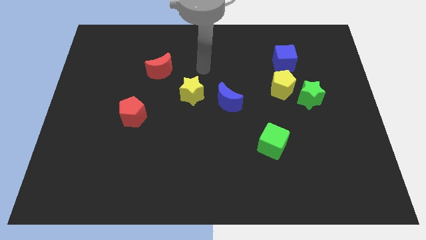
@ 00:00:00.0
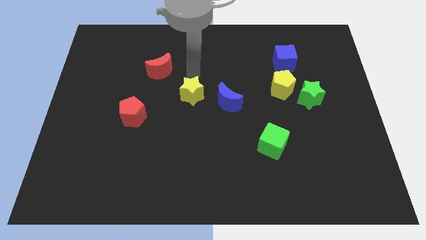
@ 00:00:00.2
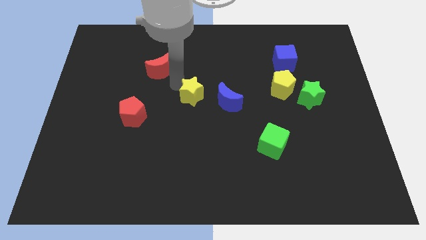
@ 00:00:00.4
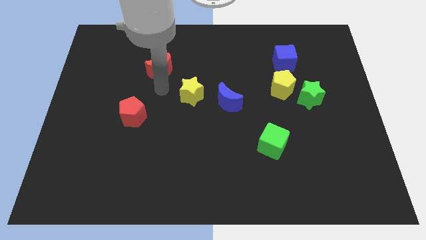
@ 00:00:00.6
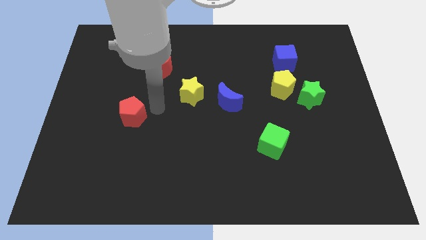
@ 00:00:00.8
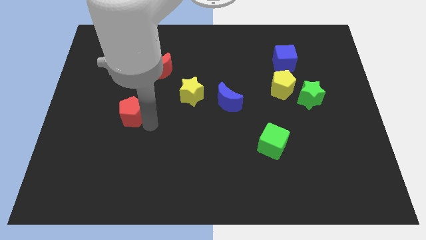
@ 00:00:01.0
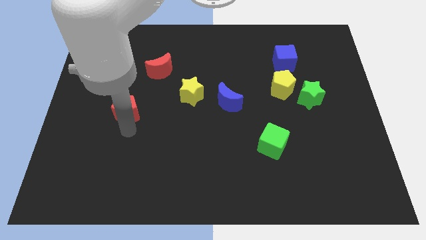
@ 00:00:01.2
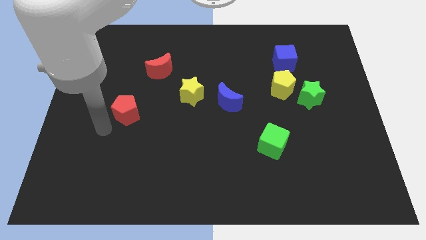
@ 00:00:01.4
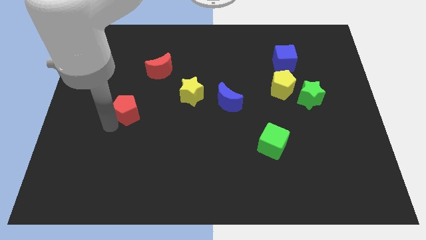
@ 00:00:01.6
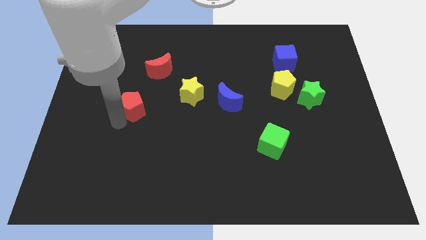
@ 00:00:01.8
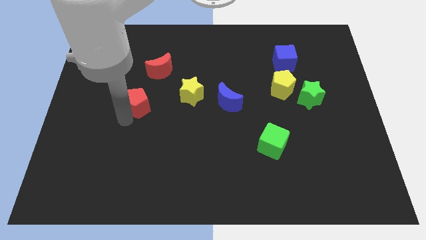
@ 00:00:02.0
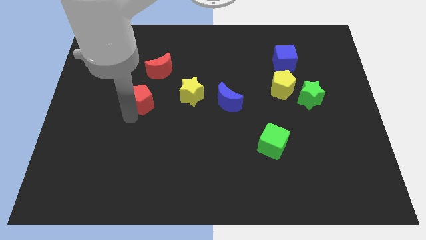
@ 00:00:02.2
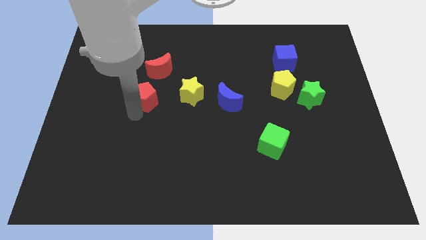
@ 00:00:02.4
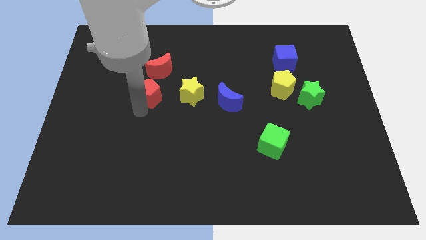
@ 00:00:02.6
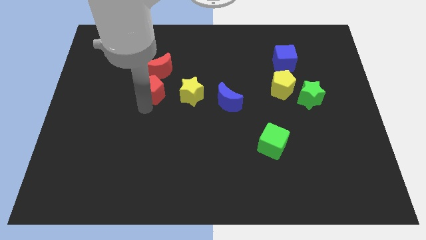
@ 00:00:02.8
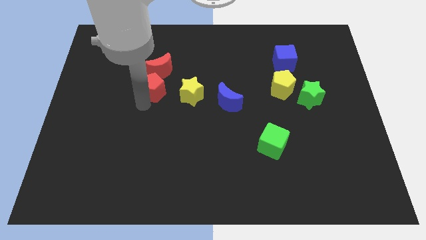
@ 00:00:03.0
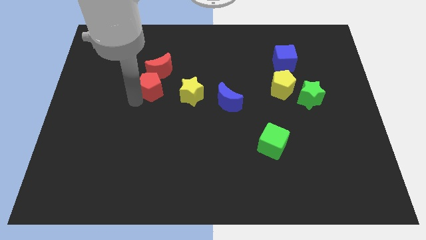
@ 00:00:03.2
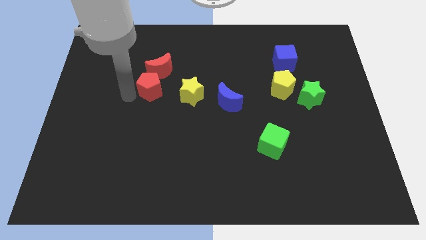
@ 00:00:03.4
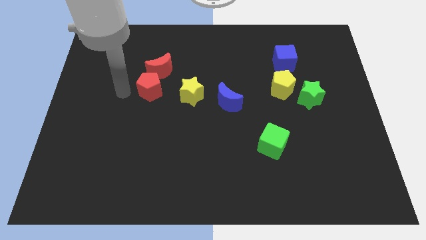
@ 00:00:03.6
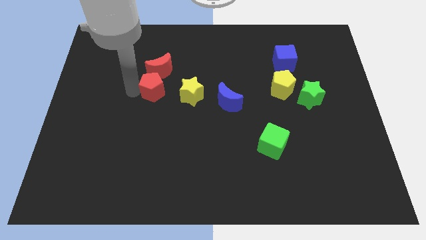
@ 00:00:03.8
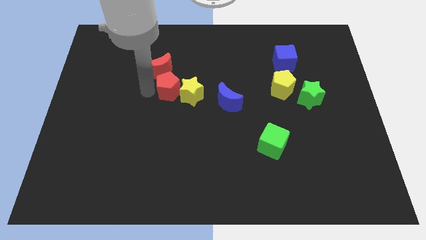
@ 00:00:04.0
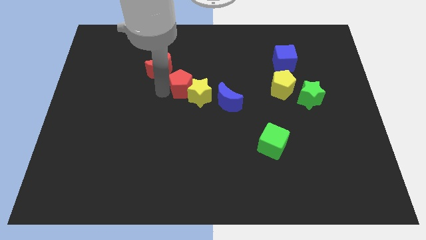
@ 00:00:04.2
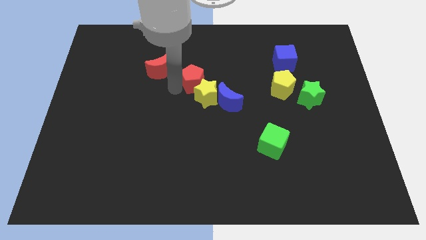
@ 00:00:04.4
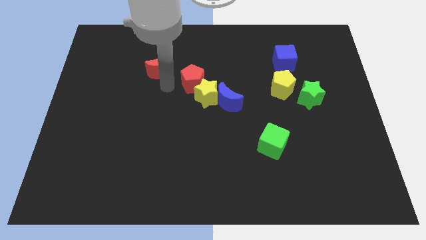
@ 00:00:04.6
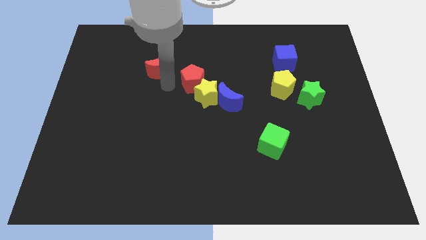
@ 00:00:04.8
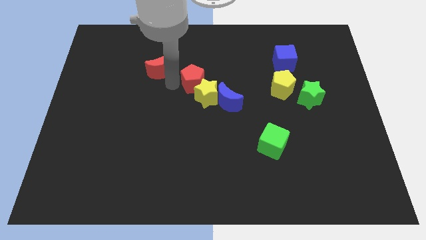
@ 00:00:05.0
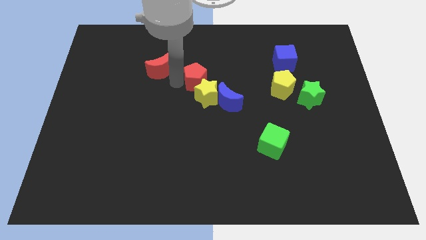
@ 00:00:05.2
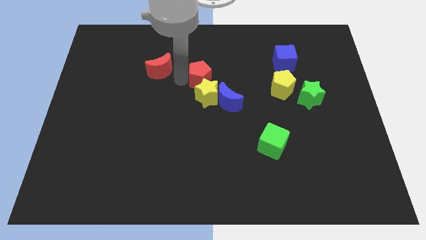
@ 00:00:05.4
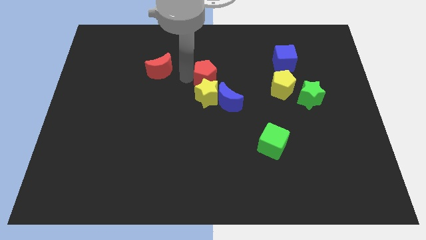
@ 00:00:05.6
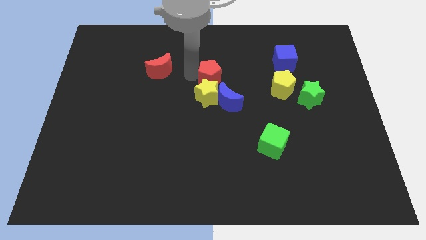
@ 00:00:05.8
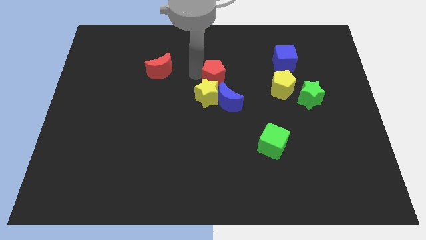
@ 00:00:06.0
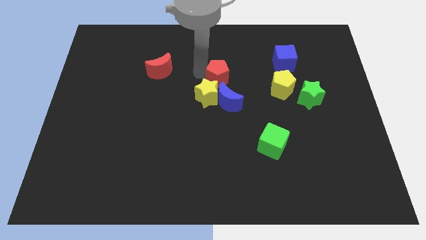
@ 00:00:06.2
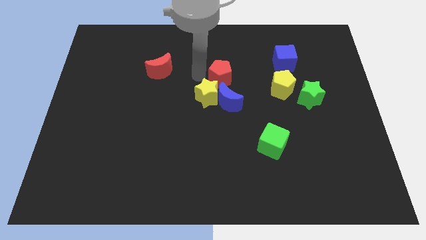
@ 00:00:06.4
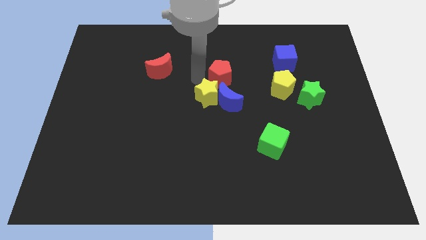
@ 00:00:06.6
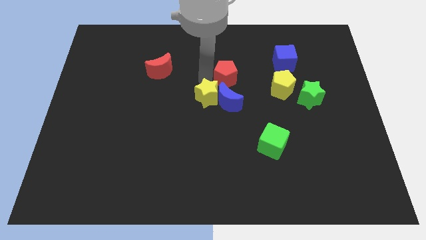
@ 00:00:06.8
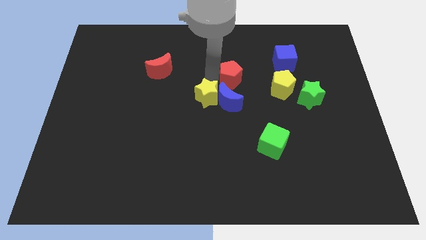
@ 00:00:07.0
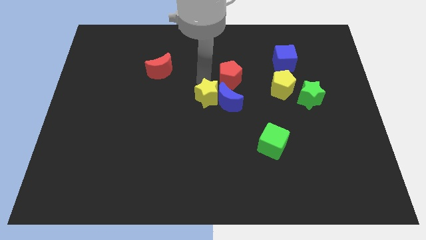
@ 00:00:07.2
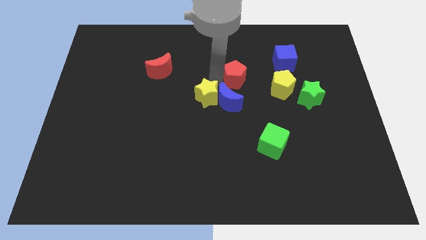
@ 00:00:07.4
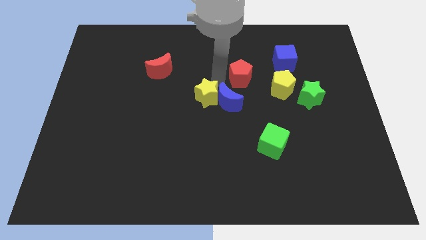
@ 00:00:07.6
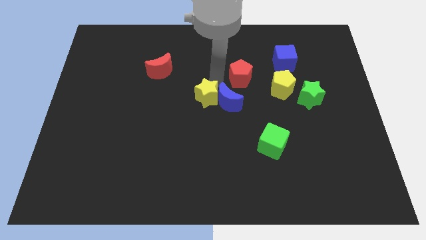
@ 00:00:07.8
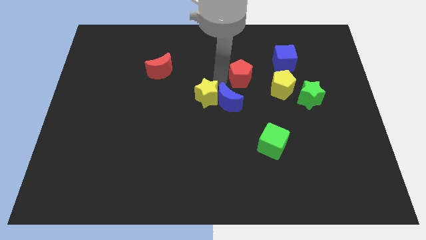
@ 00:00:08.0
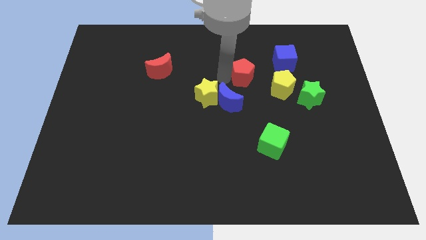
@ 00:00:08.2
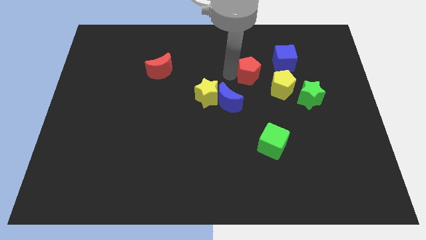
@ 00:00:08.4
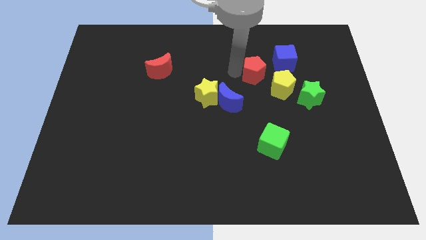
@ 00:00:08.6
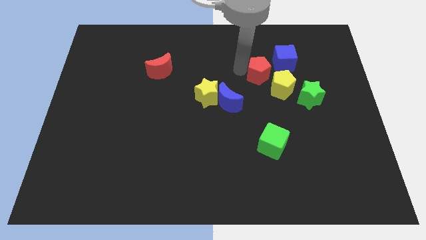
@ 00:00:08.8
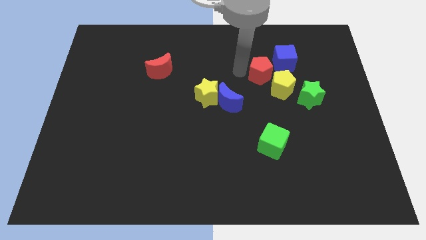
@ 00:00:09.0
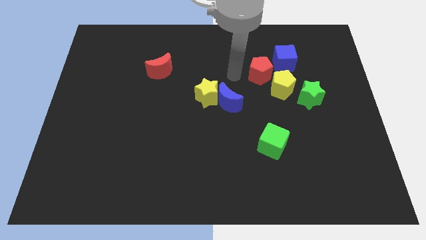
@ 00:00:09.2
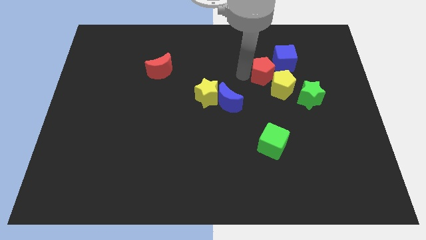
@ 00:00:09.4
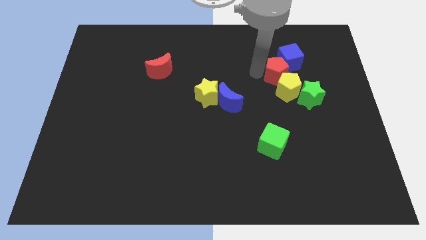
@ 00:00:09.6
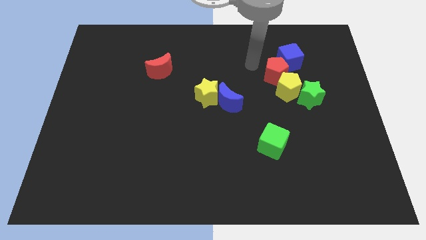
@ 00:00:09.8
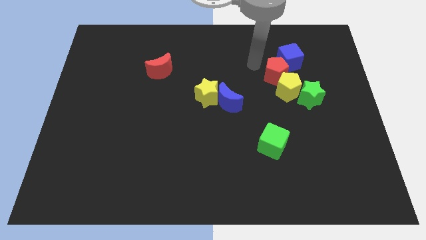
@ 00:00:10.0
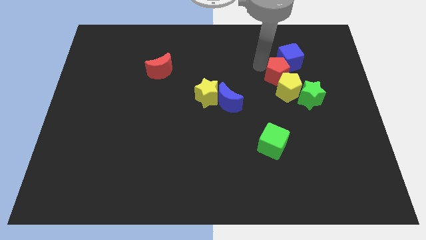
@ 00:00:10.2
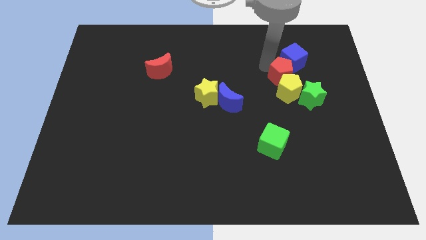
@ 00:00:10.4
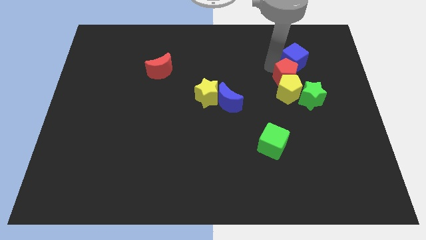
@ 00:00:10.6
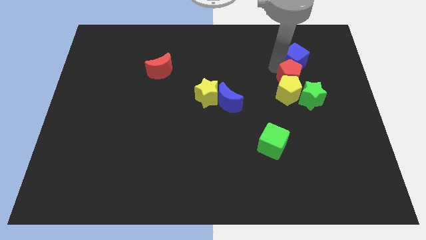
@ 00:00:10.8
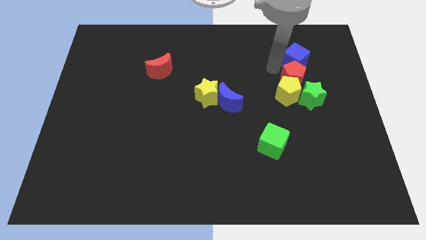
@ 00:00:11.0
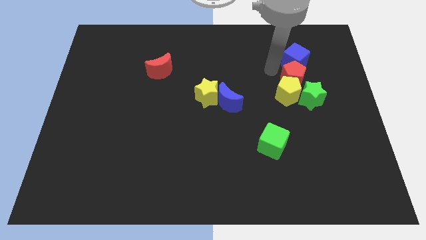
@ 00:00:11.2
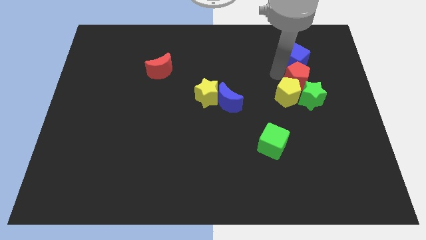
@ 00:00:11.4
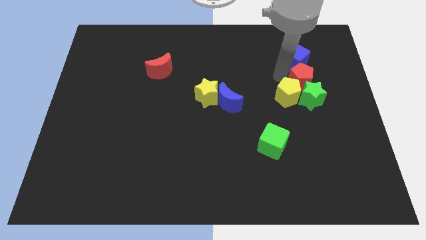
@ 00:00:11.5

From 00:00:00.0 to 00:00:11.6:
move the red pentagon right of the yellow pentagon

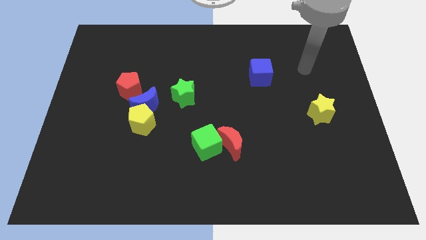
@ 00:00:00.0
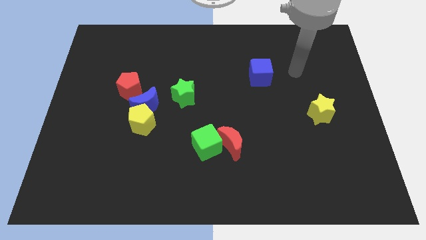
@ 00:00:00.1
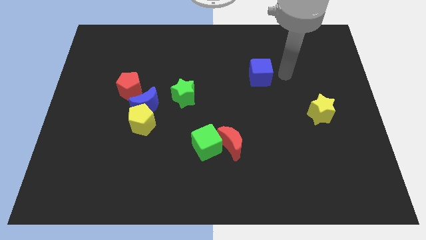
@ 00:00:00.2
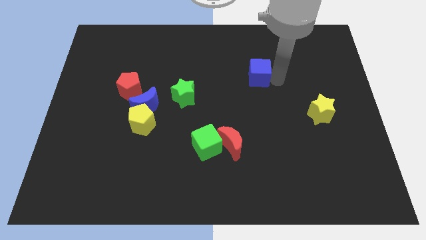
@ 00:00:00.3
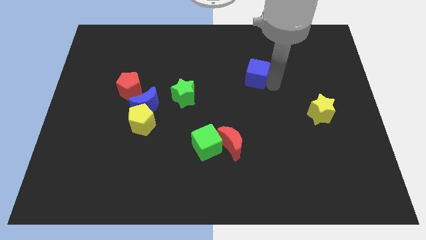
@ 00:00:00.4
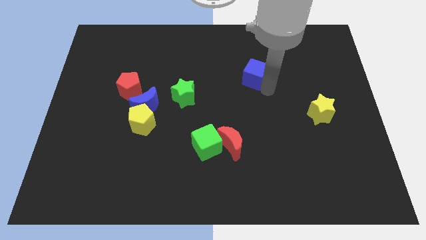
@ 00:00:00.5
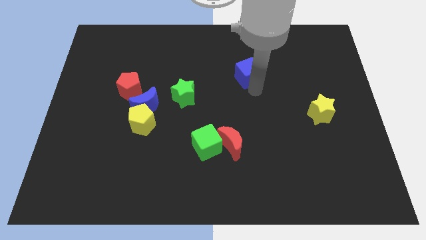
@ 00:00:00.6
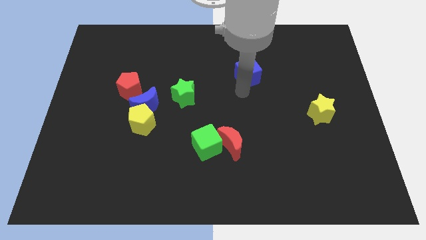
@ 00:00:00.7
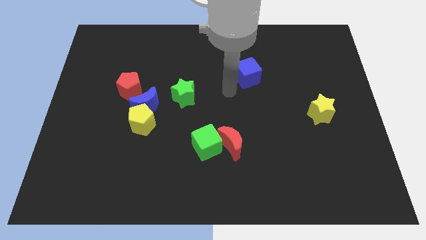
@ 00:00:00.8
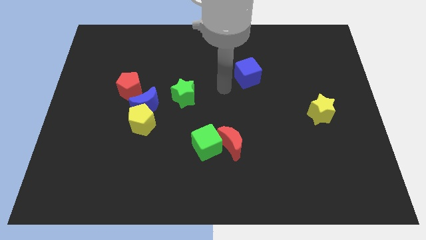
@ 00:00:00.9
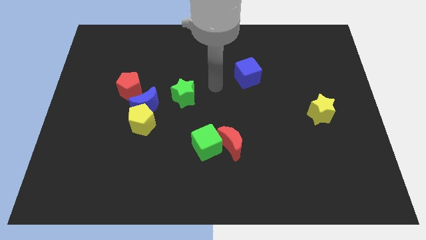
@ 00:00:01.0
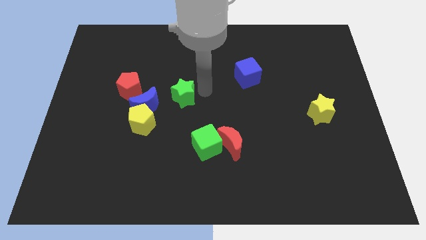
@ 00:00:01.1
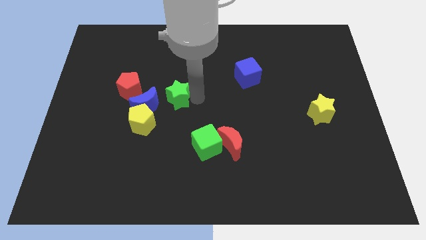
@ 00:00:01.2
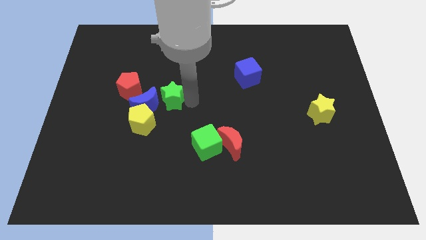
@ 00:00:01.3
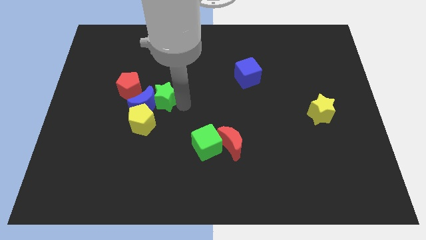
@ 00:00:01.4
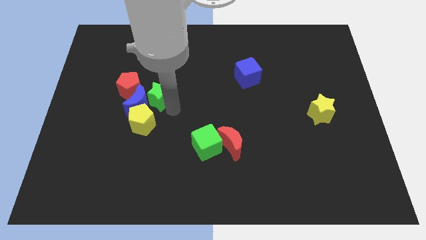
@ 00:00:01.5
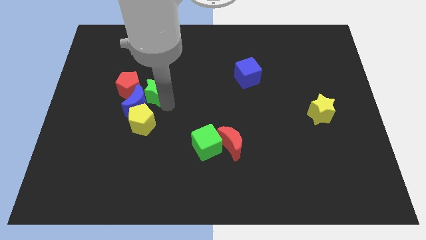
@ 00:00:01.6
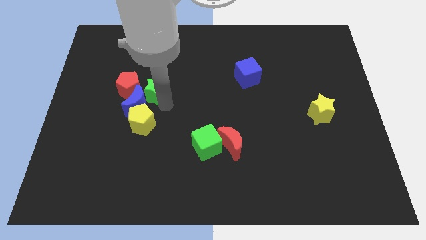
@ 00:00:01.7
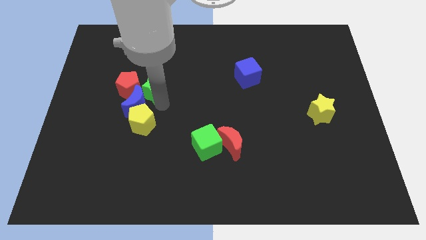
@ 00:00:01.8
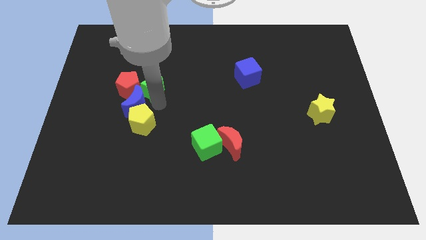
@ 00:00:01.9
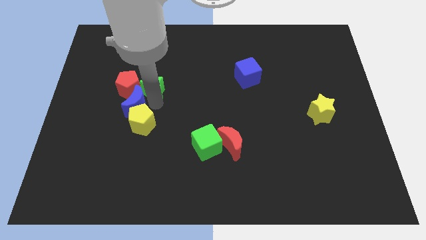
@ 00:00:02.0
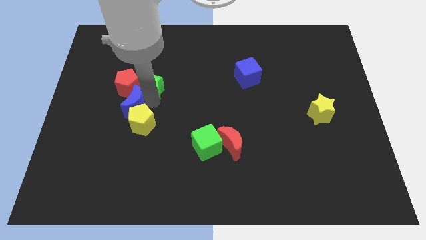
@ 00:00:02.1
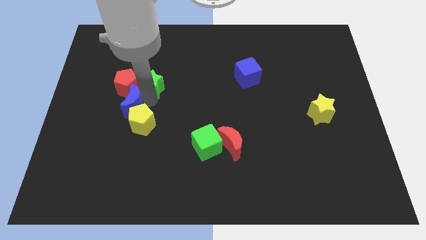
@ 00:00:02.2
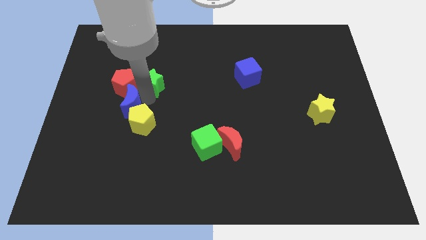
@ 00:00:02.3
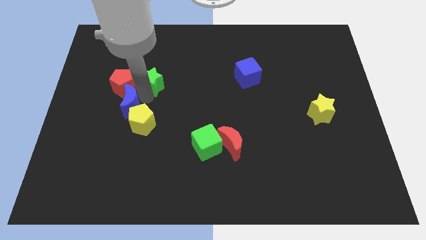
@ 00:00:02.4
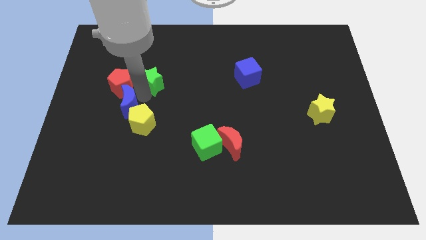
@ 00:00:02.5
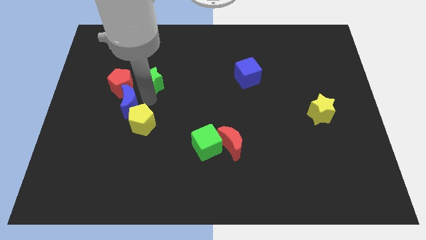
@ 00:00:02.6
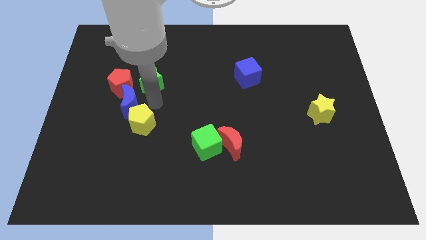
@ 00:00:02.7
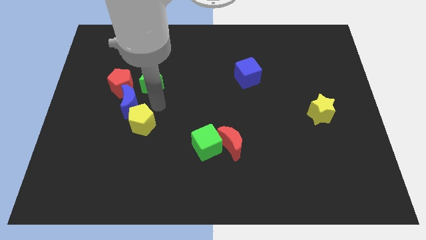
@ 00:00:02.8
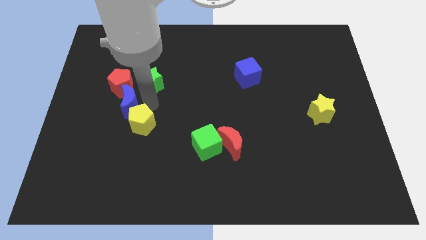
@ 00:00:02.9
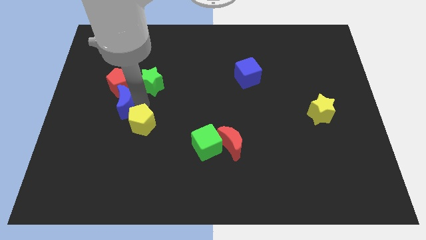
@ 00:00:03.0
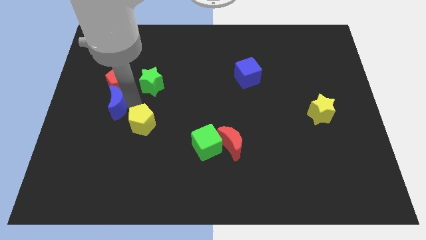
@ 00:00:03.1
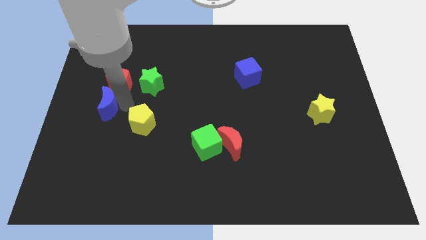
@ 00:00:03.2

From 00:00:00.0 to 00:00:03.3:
put the blue moon to the bottom left side of the red pentagon
